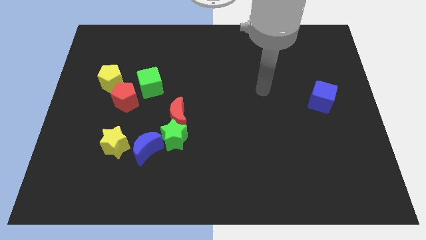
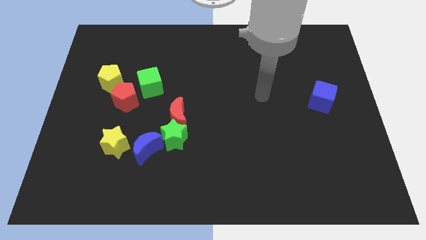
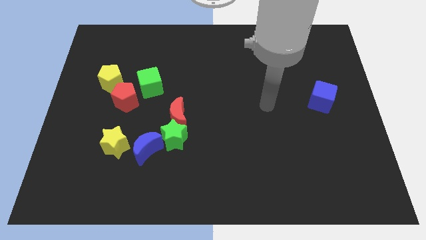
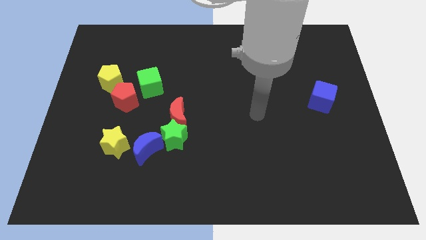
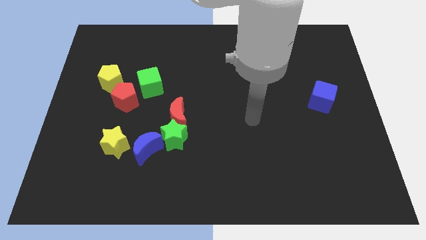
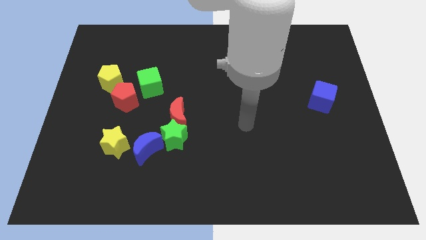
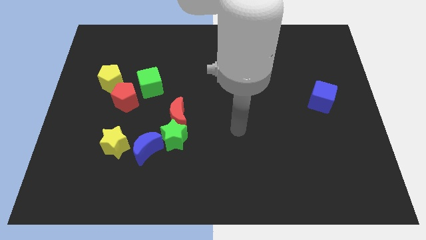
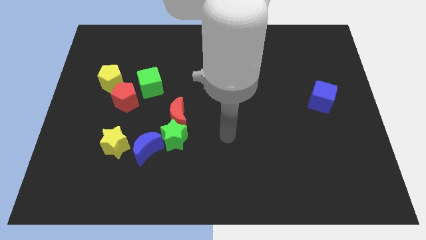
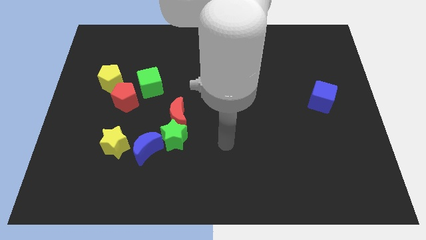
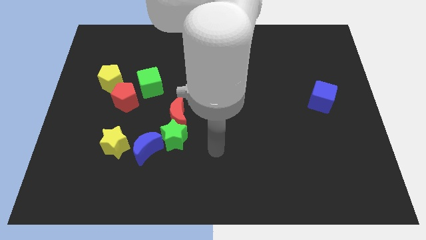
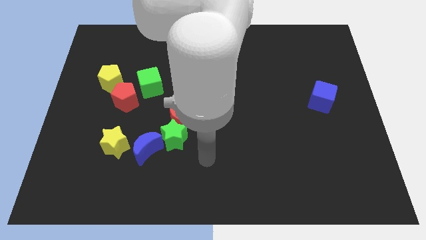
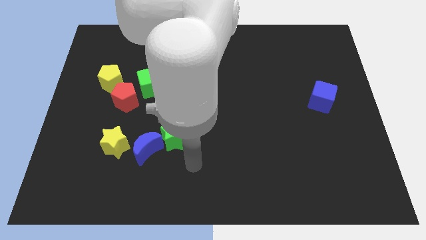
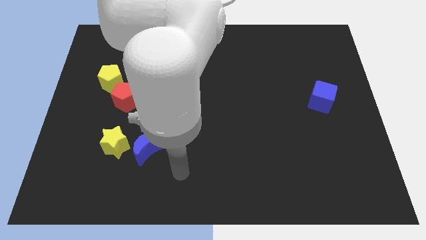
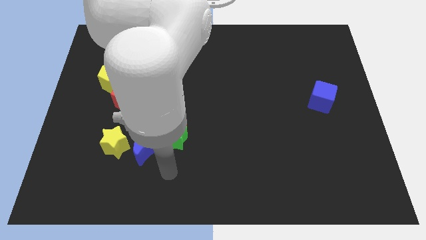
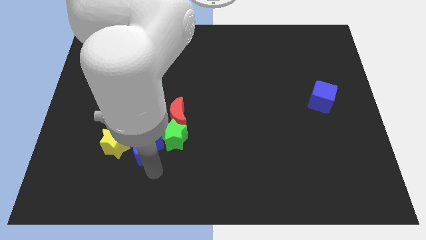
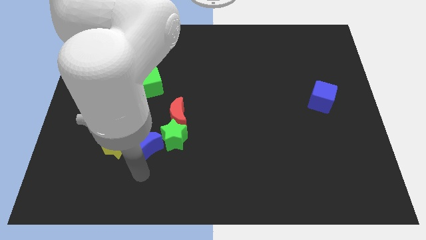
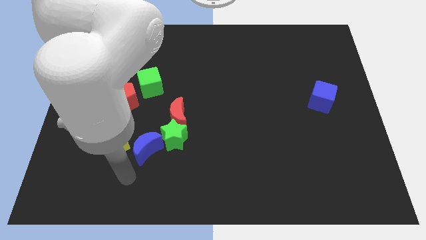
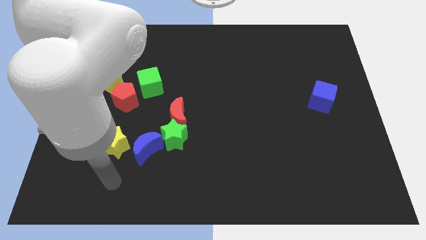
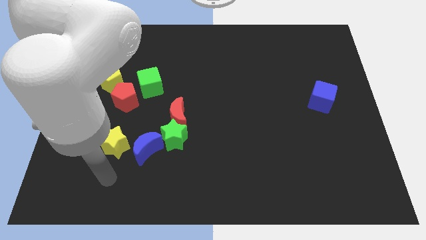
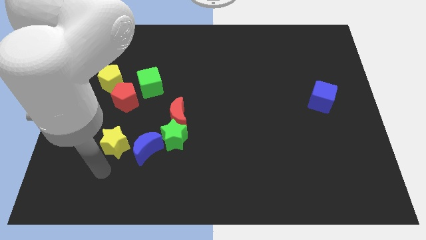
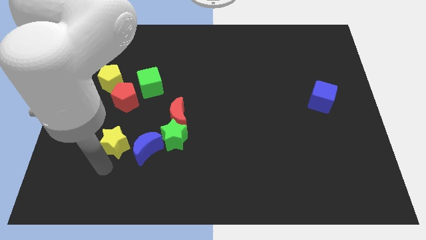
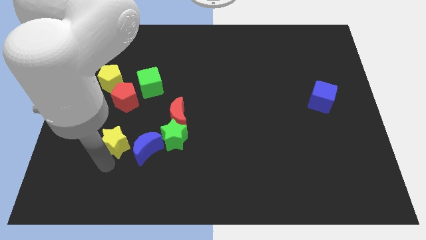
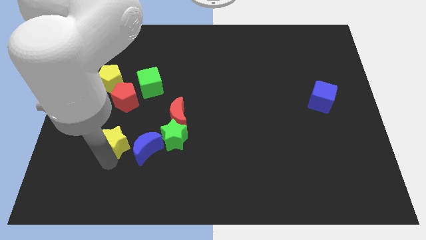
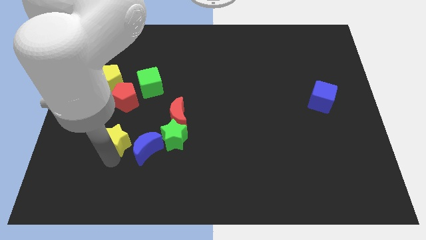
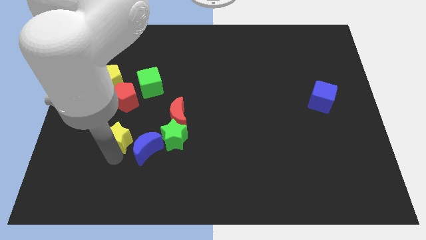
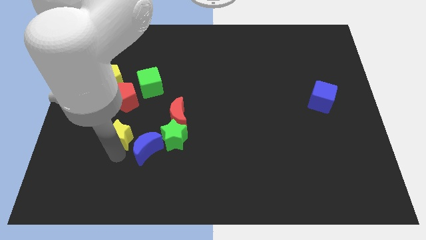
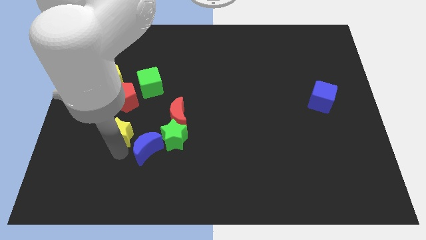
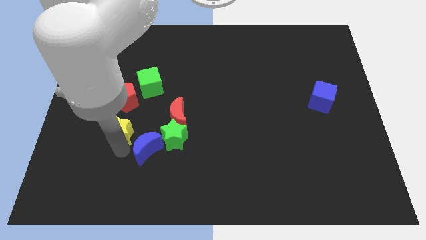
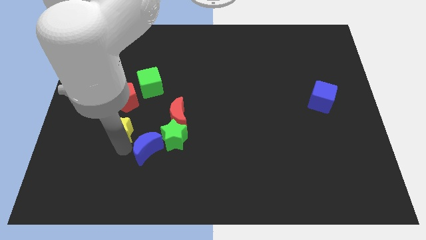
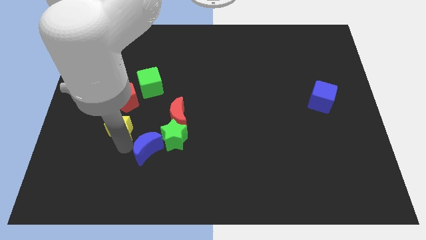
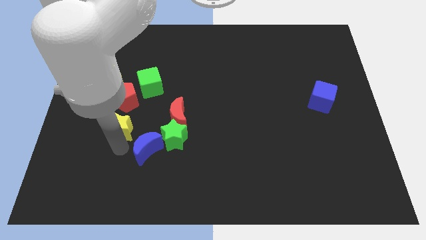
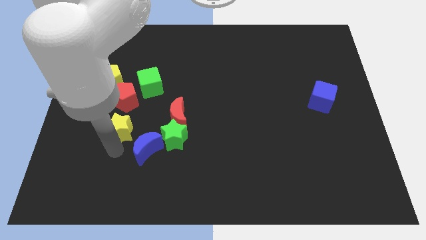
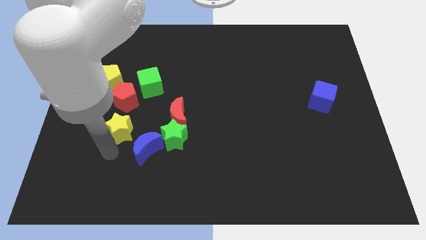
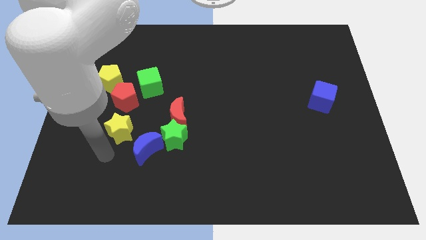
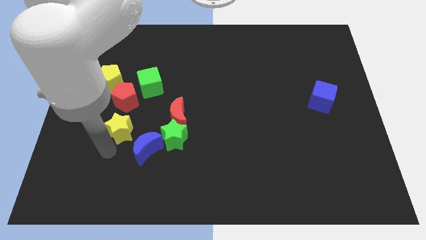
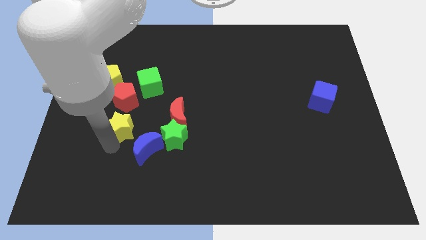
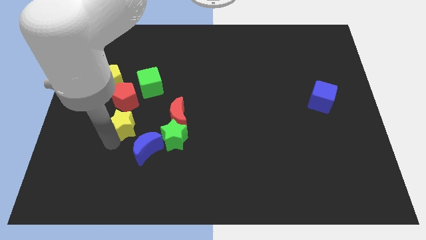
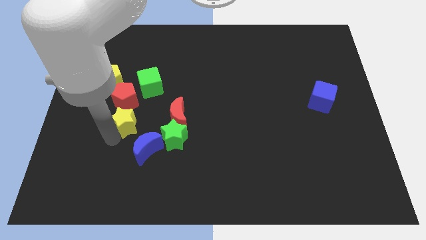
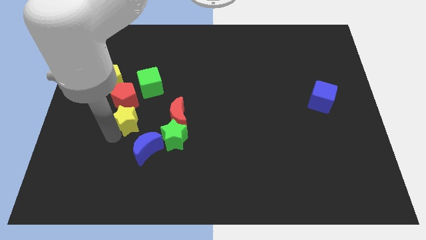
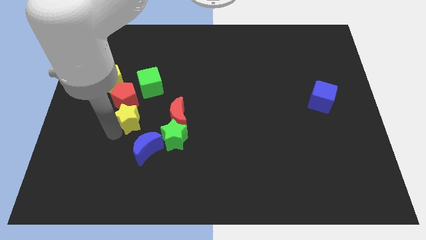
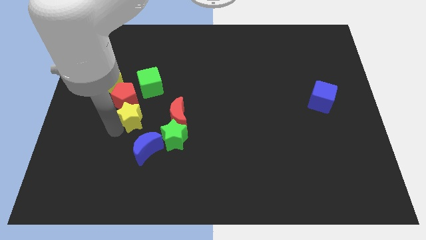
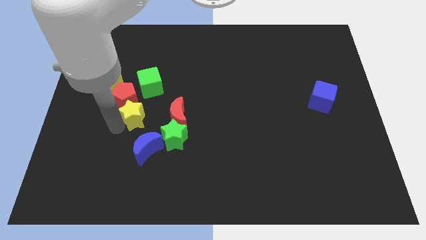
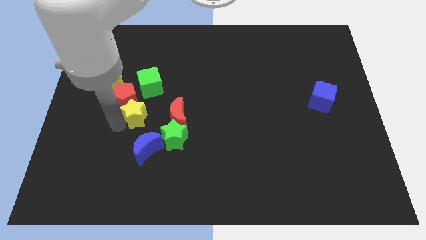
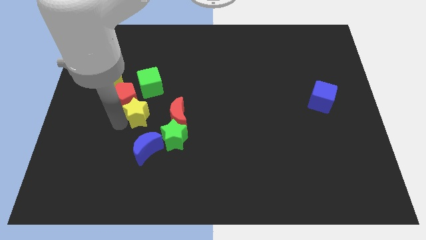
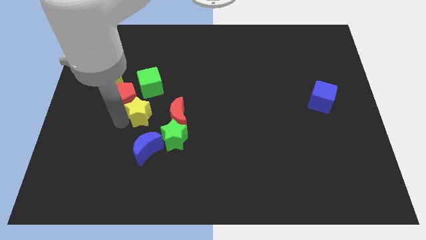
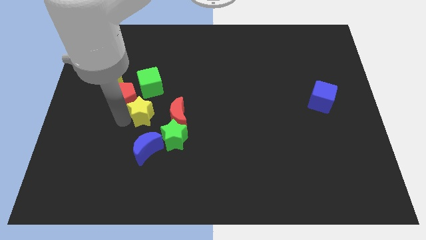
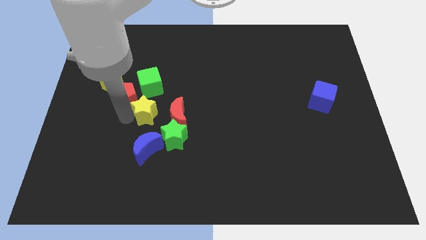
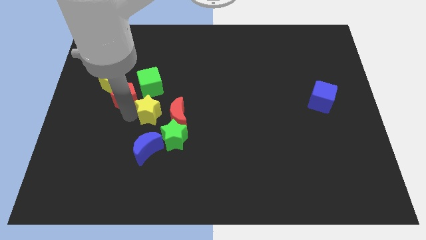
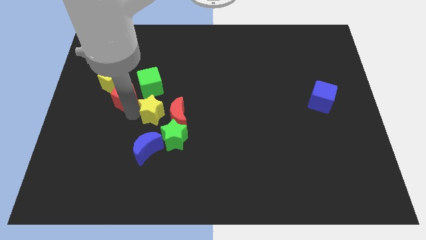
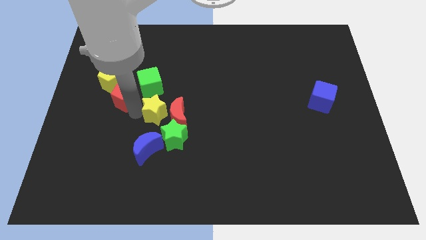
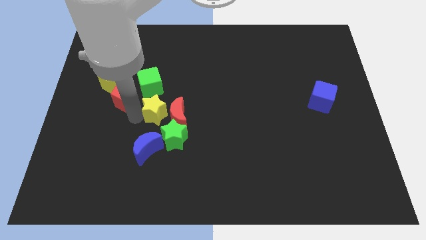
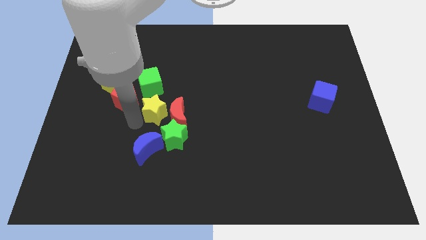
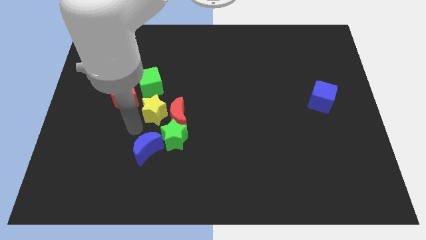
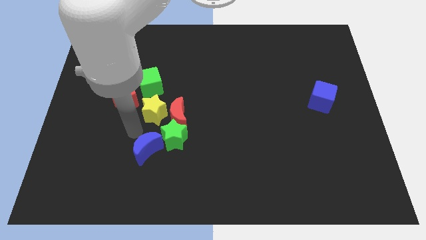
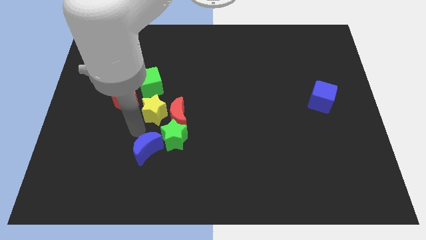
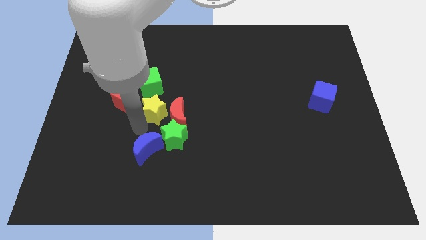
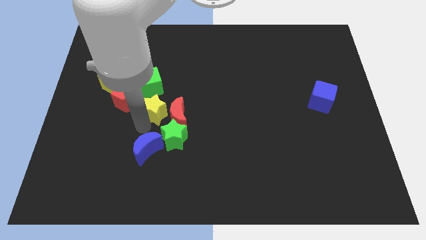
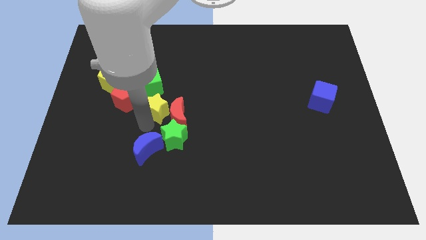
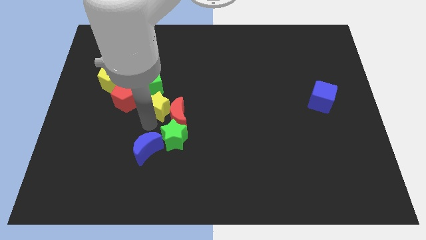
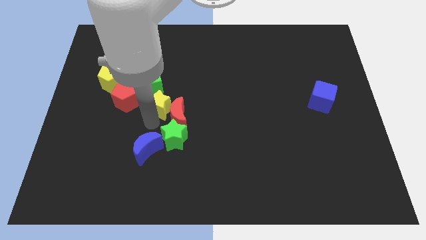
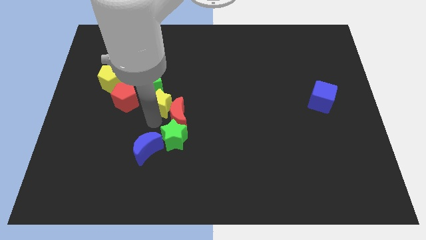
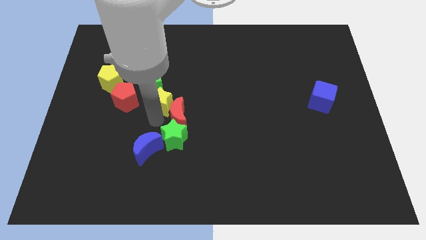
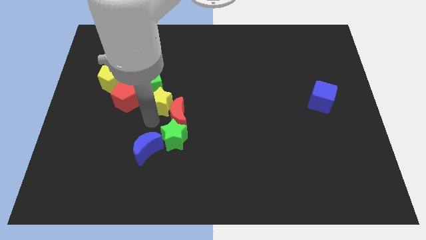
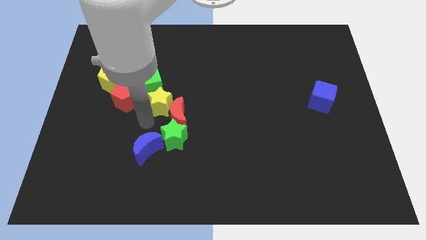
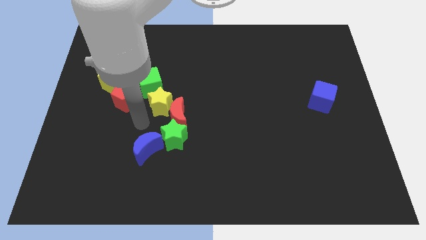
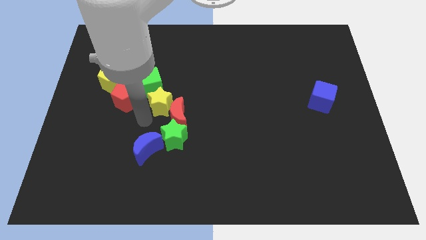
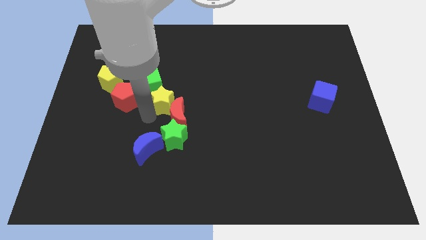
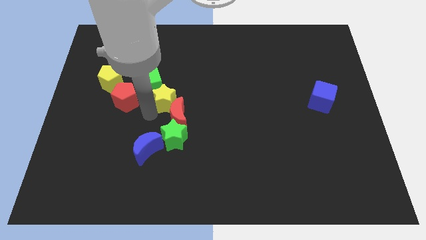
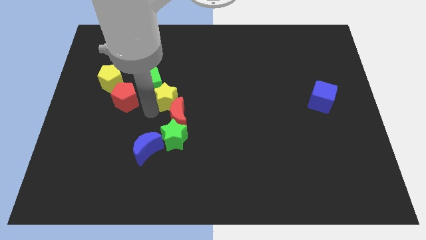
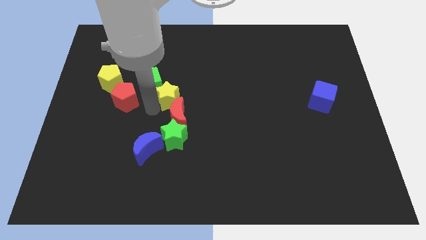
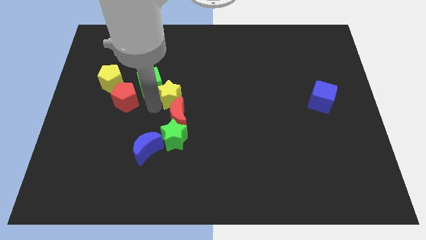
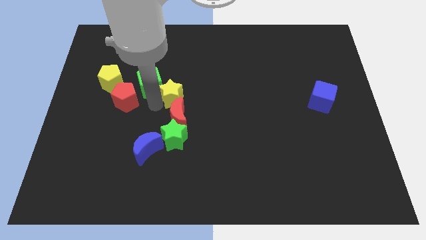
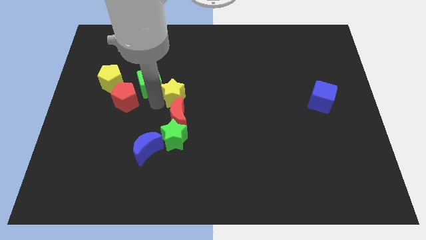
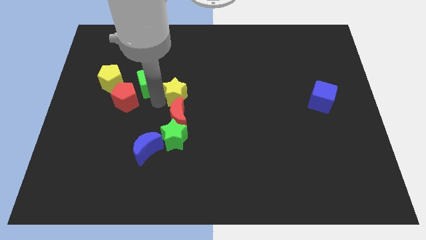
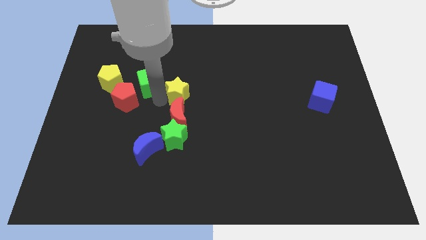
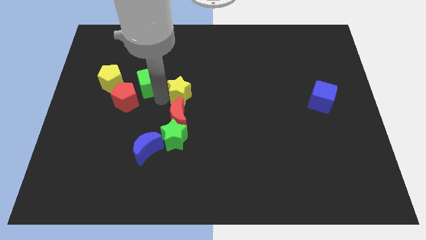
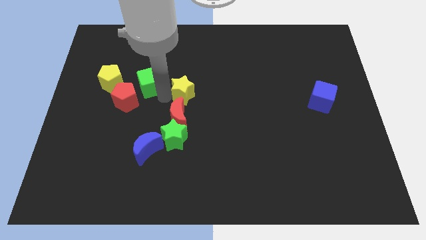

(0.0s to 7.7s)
move the yellow star up and to the right diagonally

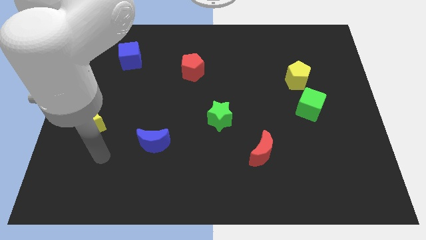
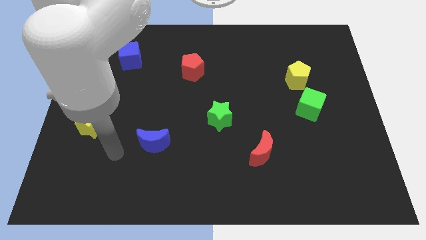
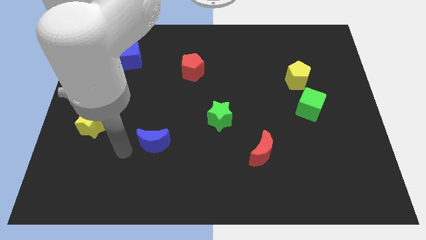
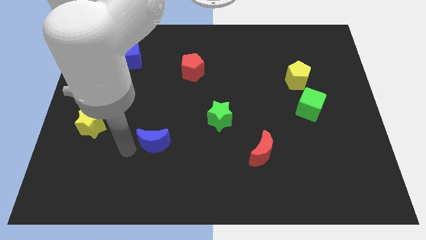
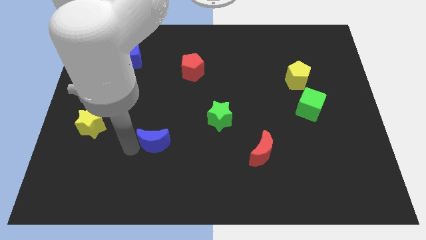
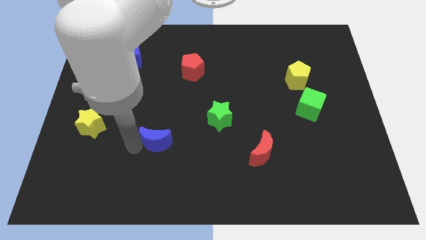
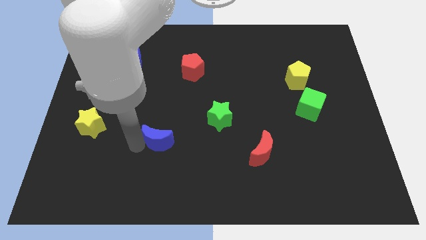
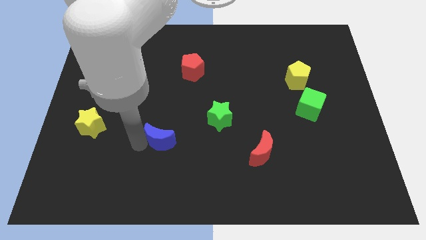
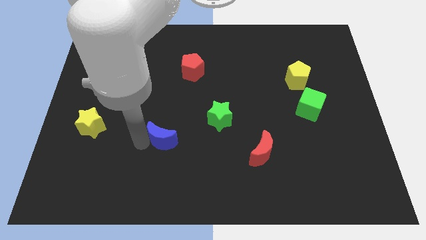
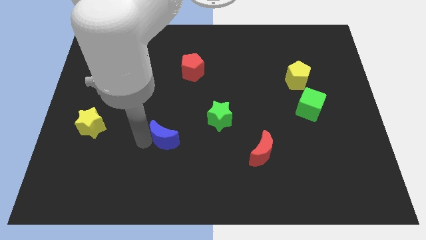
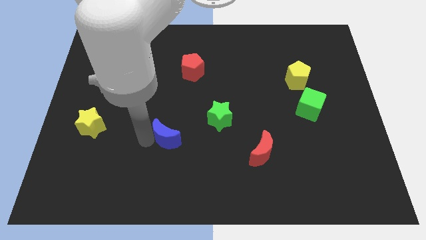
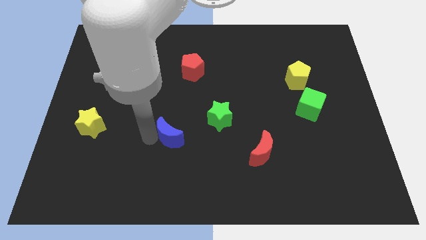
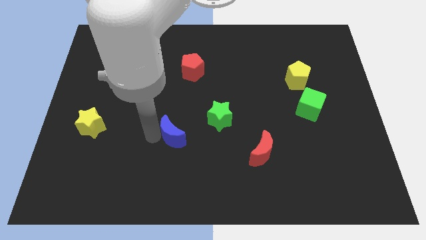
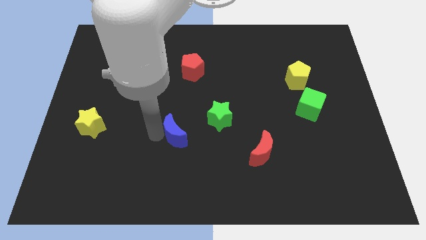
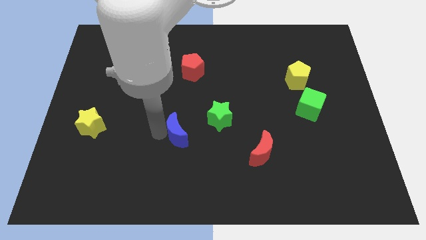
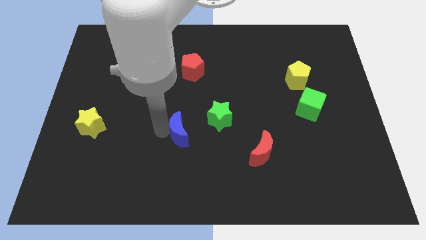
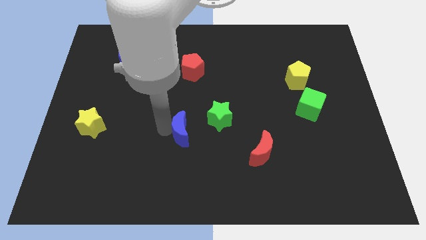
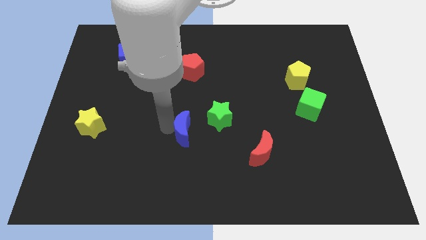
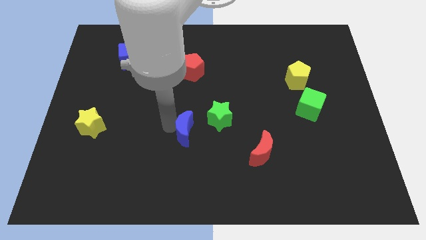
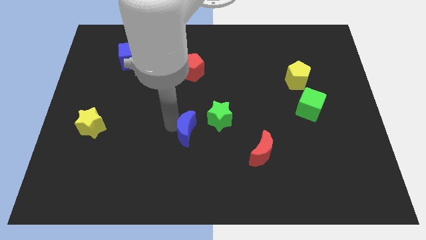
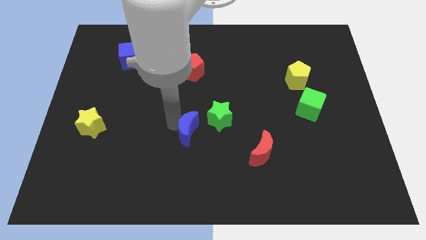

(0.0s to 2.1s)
move the blue moon right a bit
